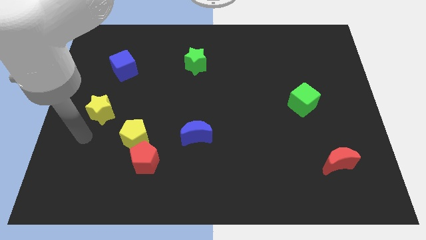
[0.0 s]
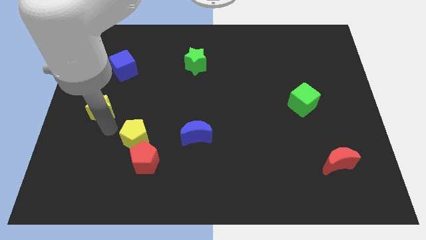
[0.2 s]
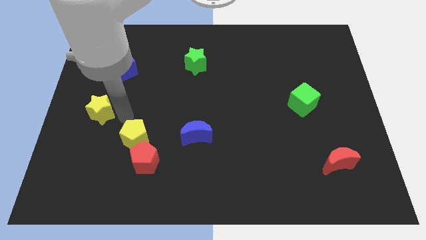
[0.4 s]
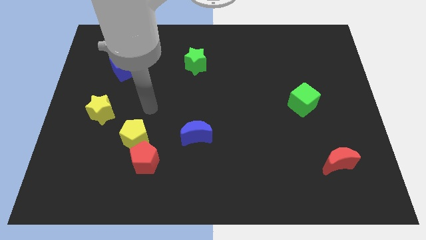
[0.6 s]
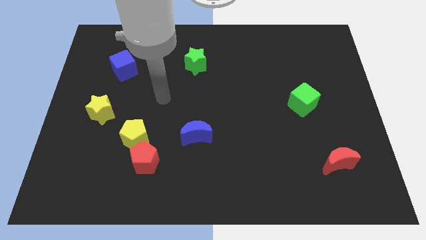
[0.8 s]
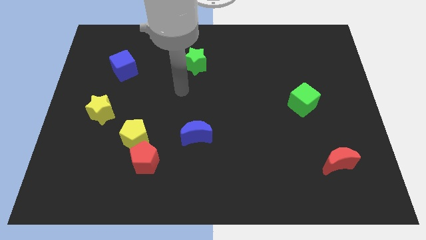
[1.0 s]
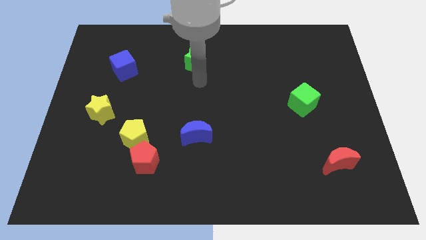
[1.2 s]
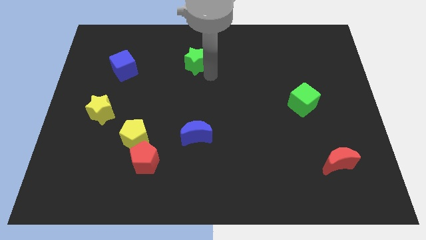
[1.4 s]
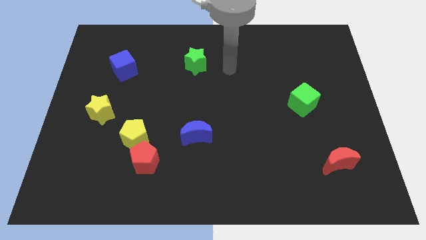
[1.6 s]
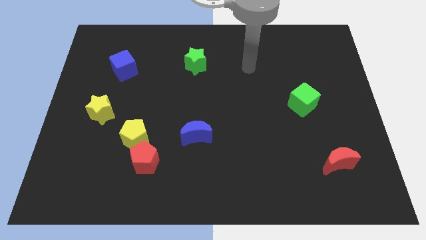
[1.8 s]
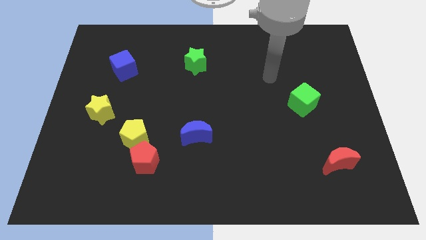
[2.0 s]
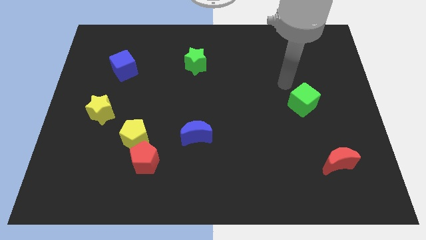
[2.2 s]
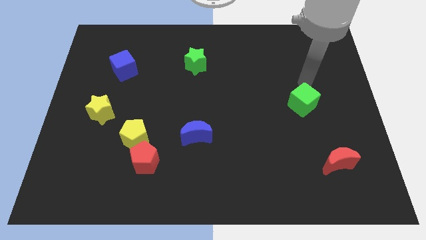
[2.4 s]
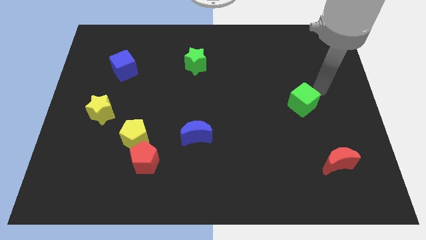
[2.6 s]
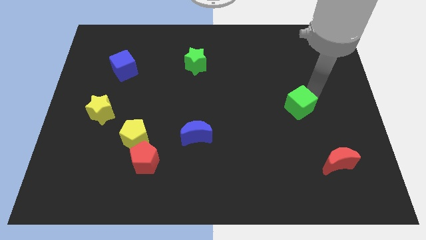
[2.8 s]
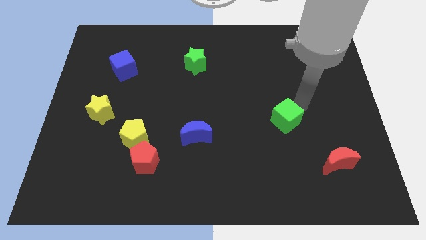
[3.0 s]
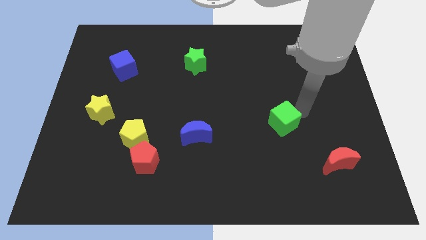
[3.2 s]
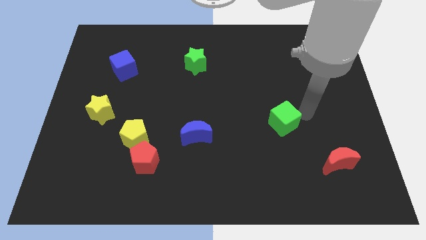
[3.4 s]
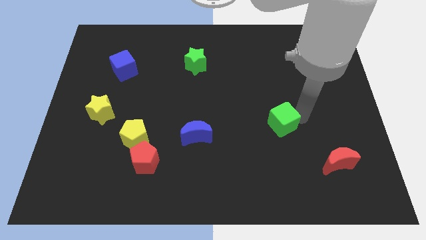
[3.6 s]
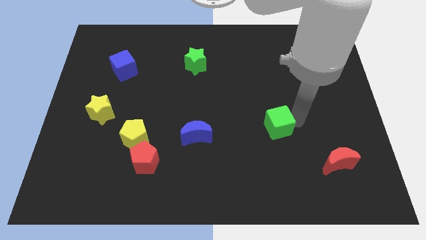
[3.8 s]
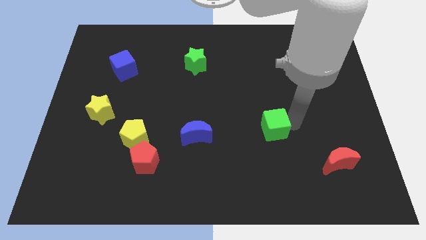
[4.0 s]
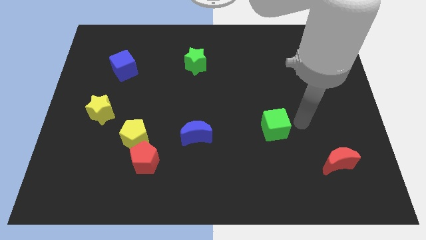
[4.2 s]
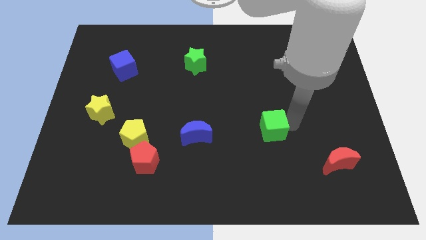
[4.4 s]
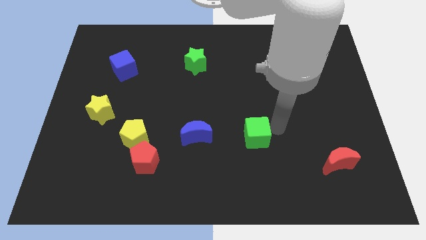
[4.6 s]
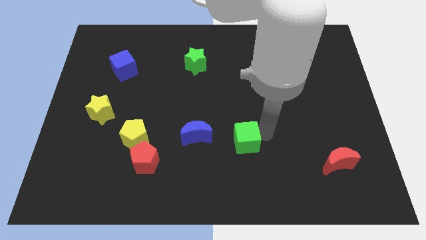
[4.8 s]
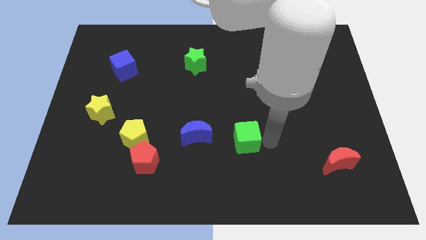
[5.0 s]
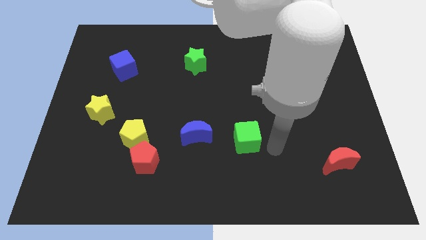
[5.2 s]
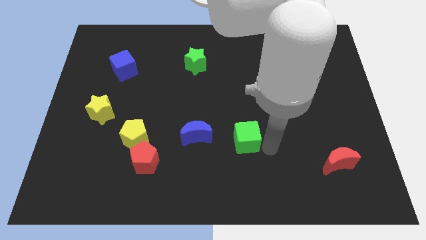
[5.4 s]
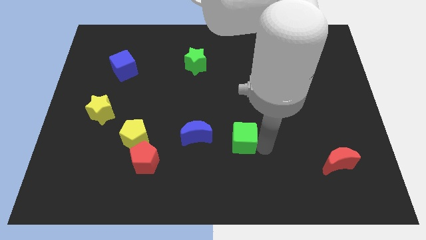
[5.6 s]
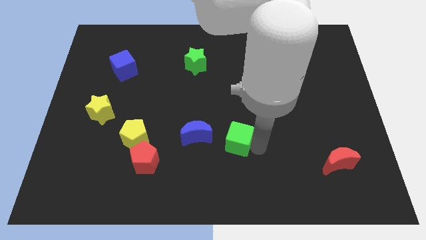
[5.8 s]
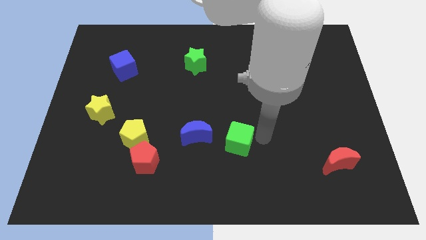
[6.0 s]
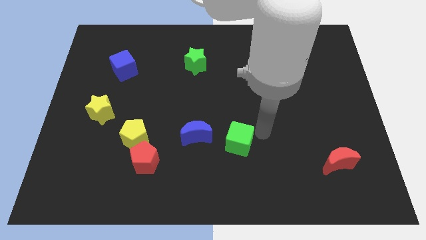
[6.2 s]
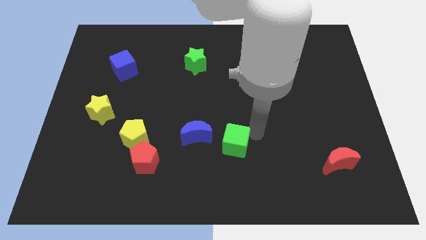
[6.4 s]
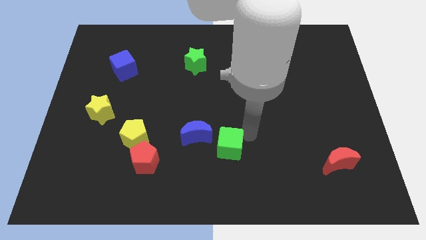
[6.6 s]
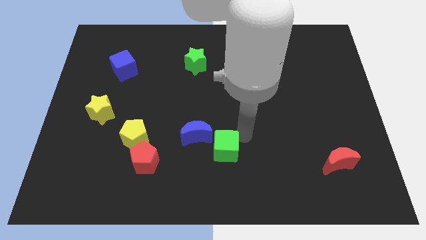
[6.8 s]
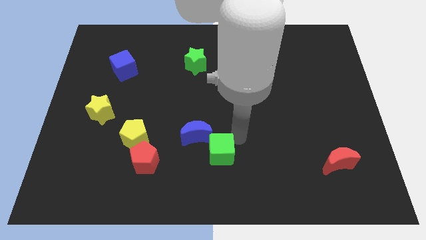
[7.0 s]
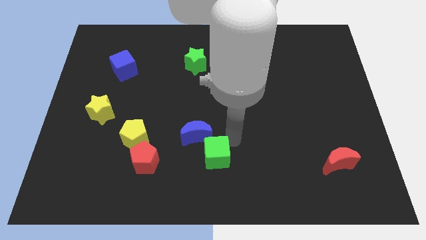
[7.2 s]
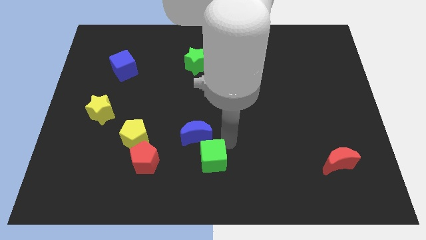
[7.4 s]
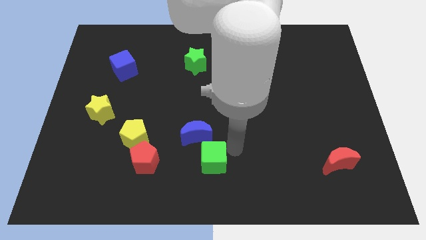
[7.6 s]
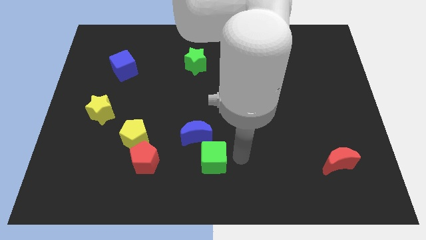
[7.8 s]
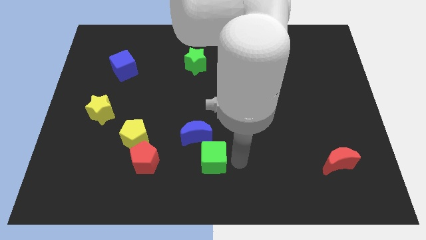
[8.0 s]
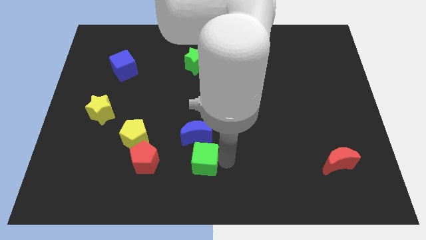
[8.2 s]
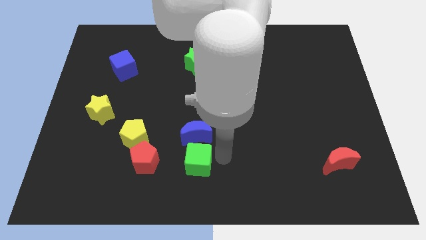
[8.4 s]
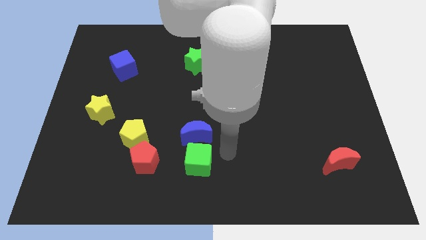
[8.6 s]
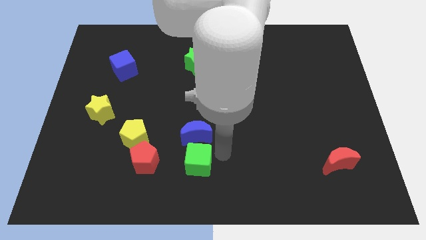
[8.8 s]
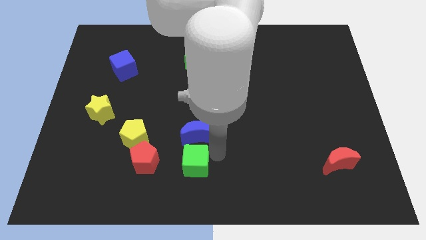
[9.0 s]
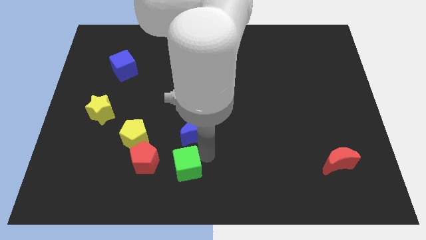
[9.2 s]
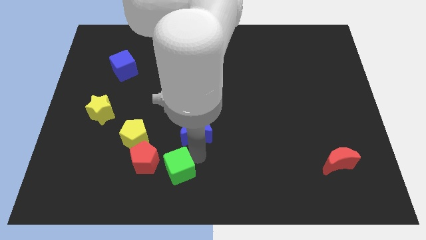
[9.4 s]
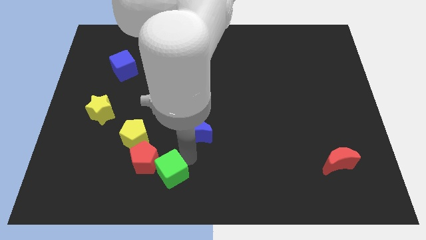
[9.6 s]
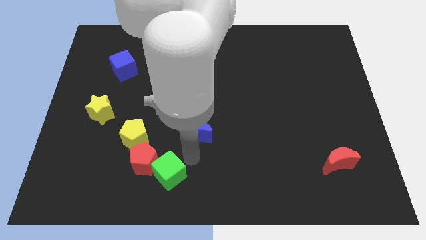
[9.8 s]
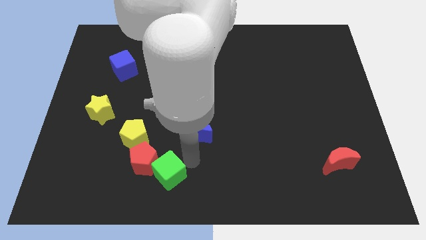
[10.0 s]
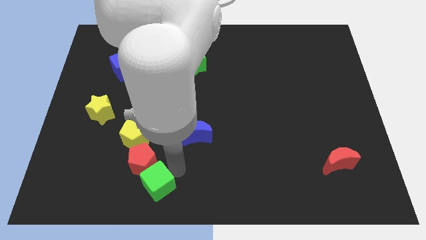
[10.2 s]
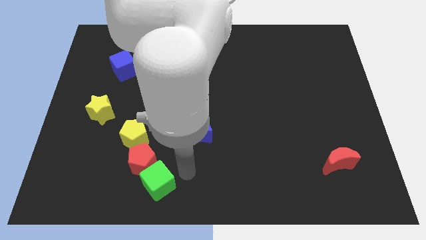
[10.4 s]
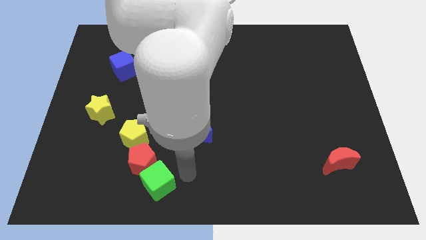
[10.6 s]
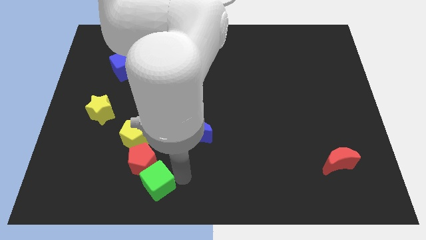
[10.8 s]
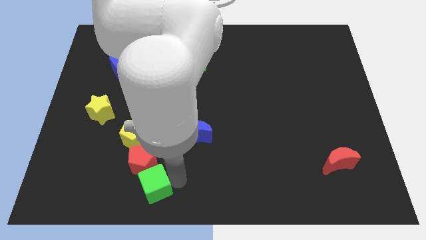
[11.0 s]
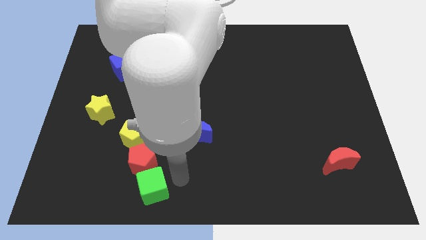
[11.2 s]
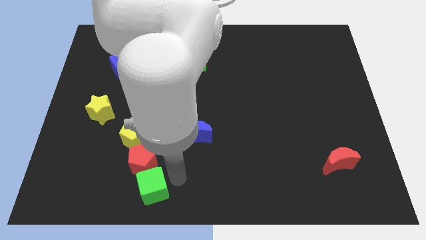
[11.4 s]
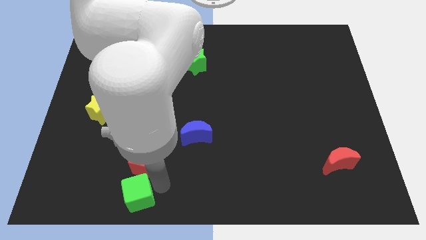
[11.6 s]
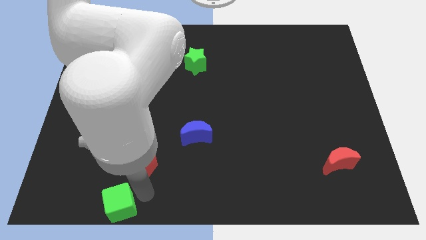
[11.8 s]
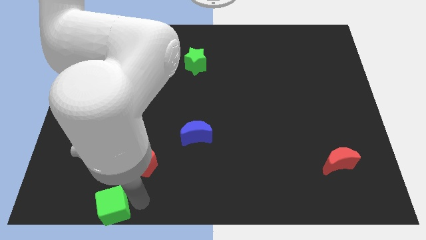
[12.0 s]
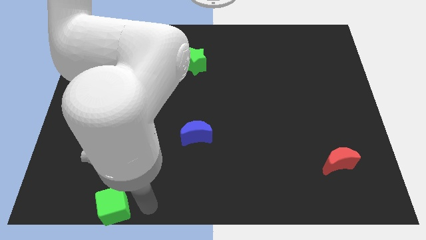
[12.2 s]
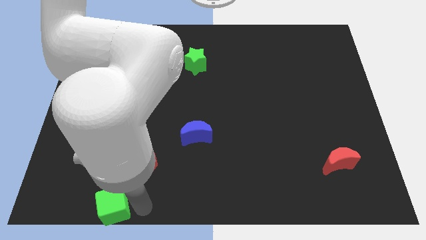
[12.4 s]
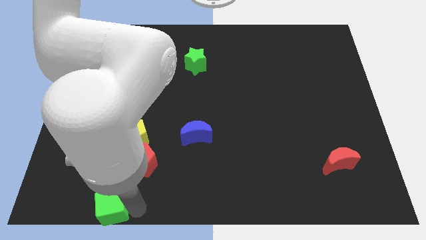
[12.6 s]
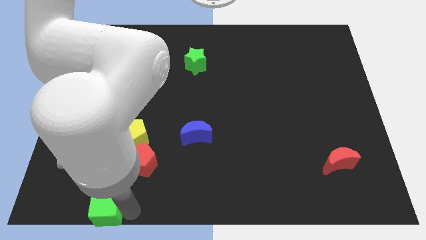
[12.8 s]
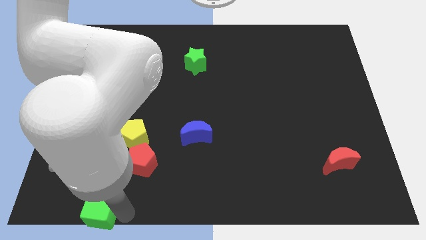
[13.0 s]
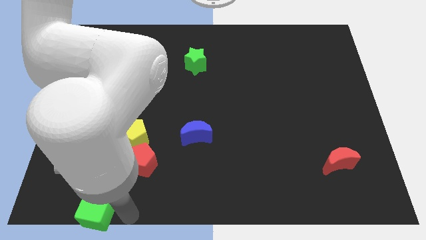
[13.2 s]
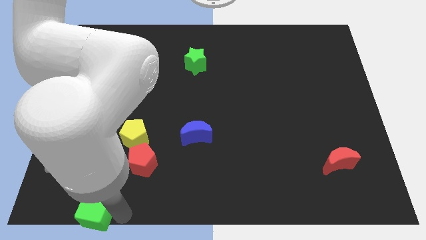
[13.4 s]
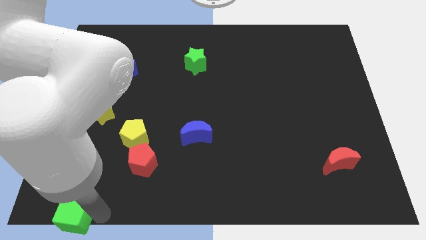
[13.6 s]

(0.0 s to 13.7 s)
put the green cube to the lower left corner
